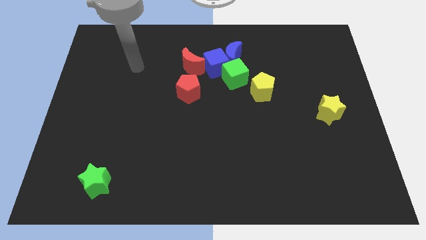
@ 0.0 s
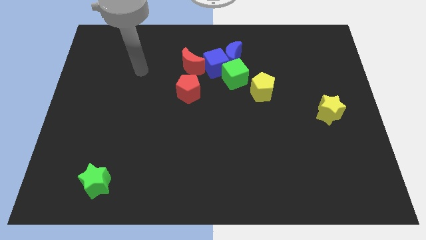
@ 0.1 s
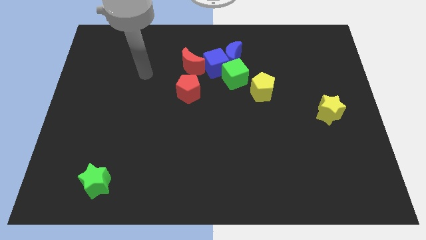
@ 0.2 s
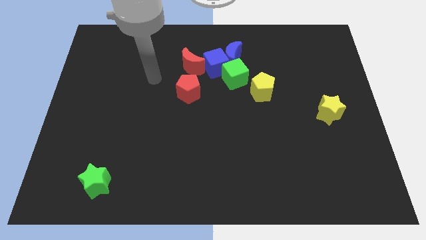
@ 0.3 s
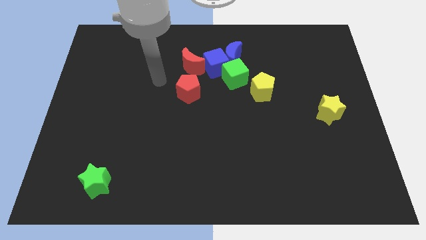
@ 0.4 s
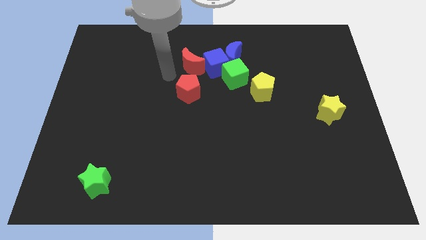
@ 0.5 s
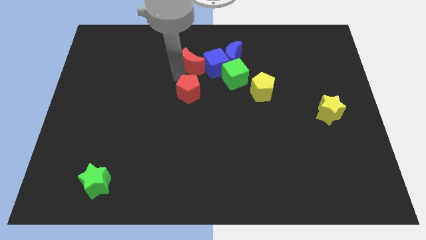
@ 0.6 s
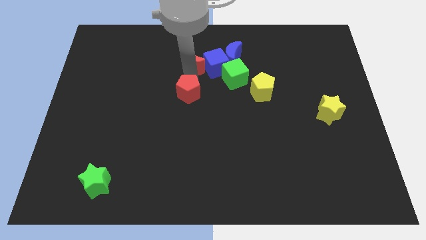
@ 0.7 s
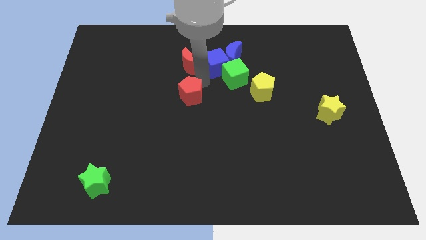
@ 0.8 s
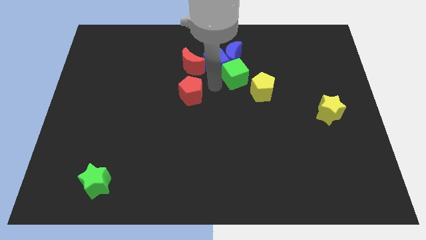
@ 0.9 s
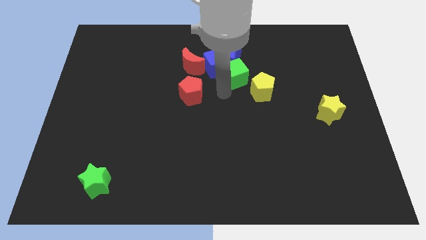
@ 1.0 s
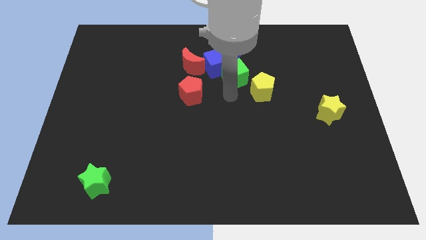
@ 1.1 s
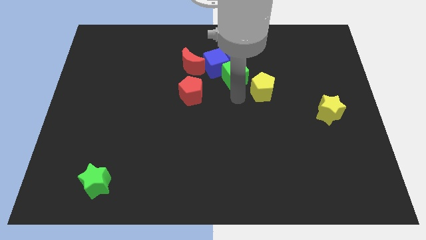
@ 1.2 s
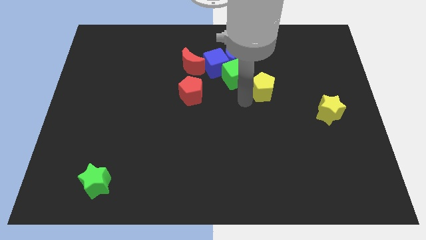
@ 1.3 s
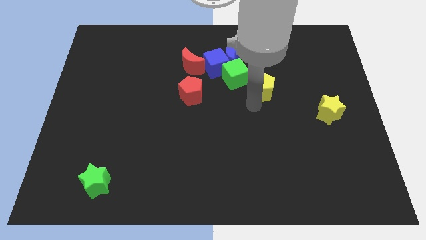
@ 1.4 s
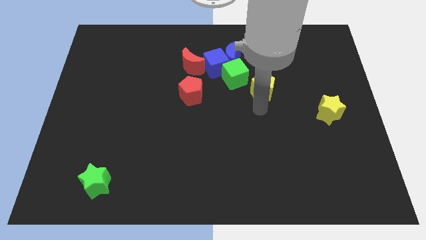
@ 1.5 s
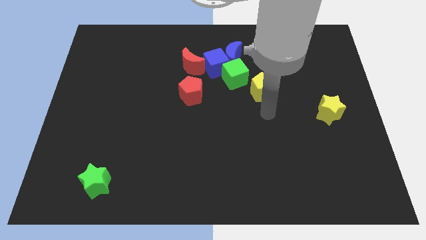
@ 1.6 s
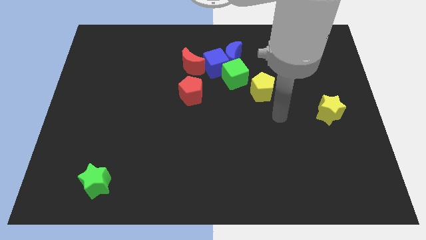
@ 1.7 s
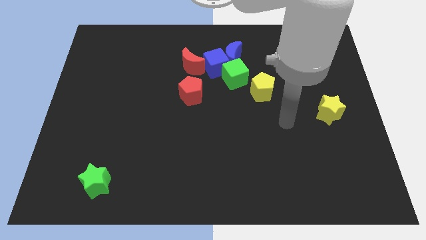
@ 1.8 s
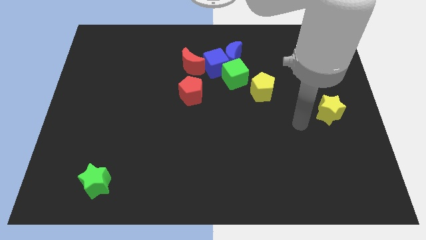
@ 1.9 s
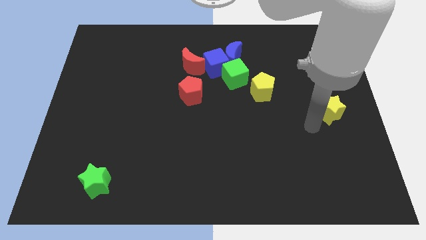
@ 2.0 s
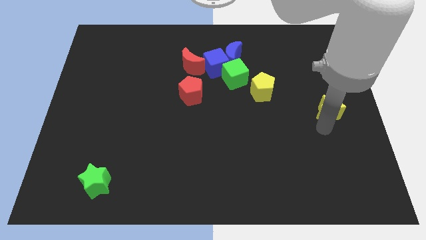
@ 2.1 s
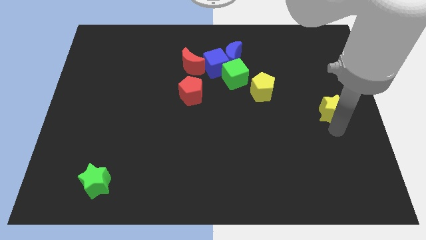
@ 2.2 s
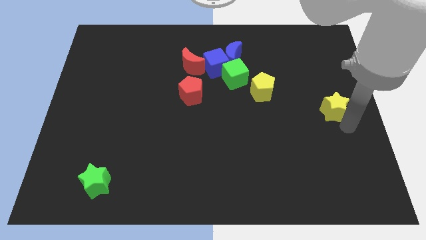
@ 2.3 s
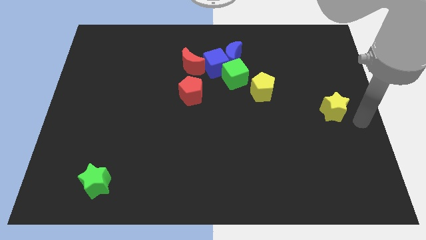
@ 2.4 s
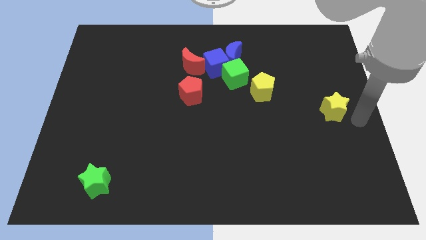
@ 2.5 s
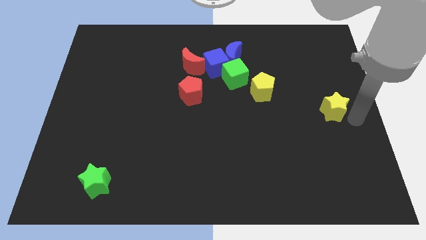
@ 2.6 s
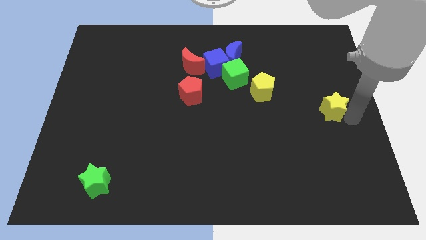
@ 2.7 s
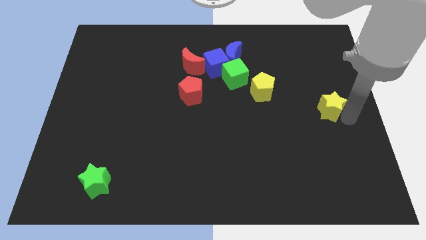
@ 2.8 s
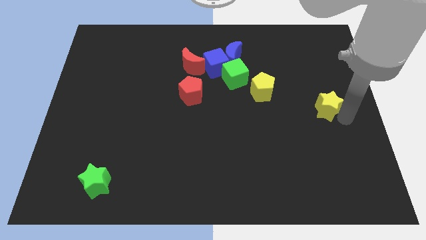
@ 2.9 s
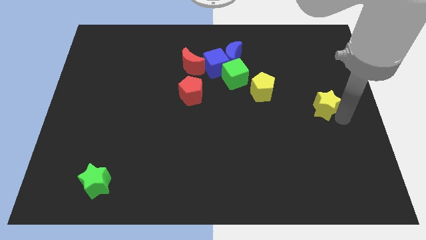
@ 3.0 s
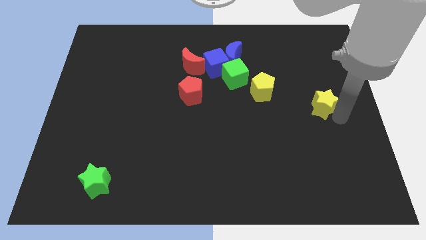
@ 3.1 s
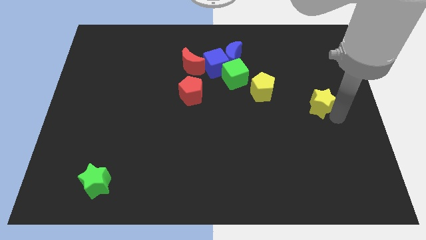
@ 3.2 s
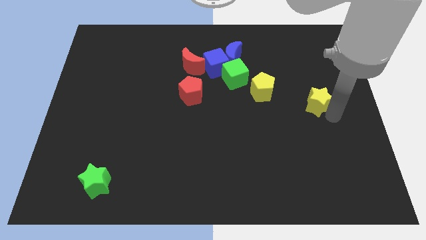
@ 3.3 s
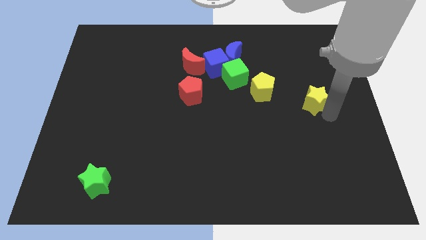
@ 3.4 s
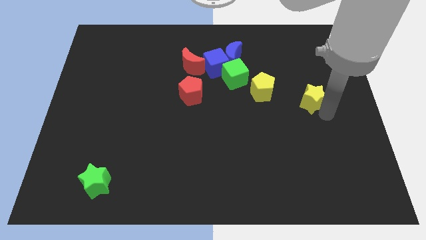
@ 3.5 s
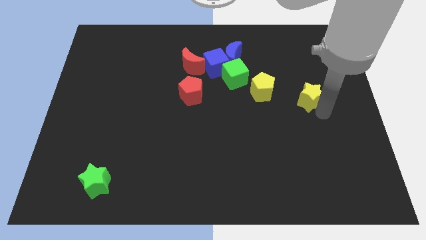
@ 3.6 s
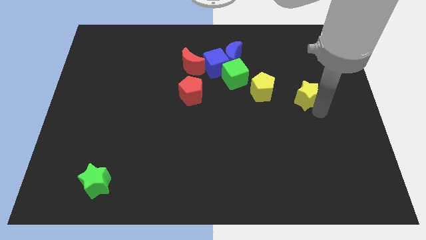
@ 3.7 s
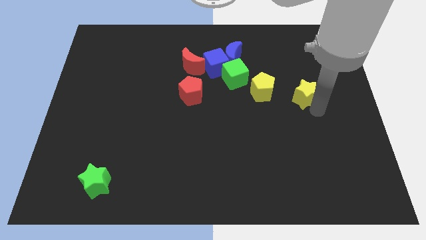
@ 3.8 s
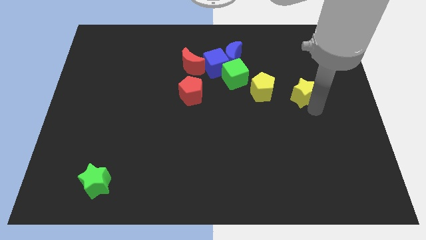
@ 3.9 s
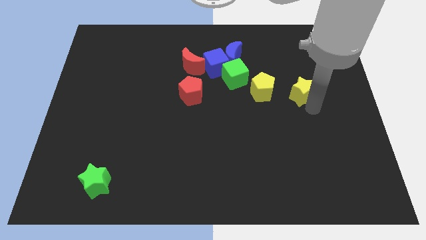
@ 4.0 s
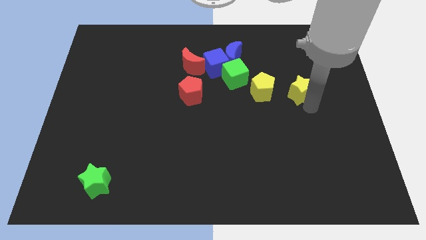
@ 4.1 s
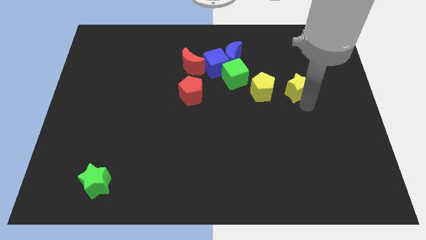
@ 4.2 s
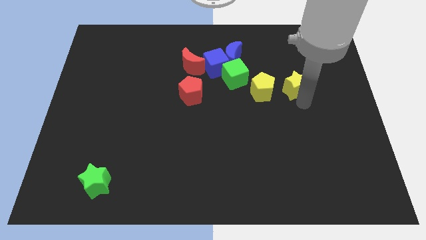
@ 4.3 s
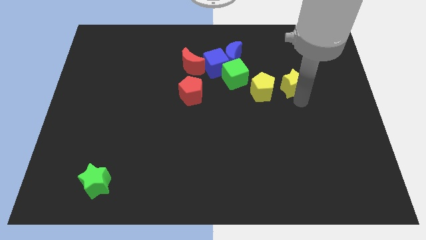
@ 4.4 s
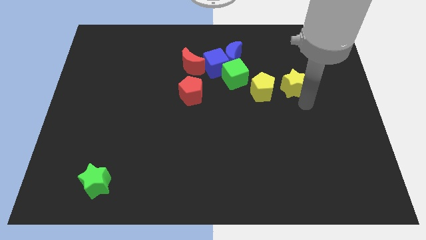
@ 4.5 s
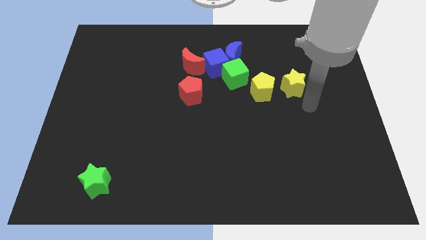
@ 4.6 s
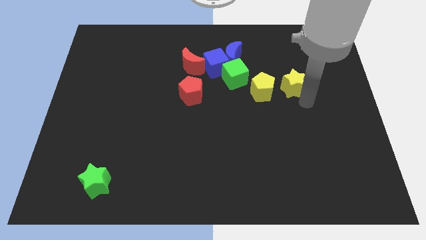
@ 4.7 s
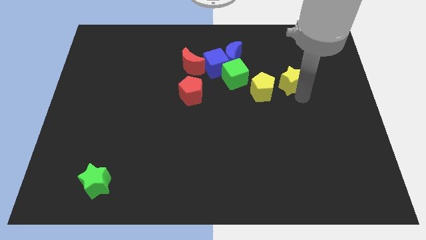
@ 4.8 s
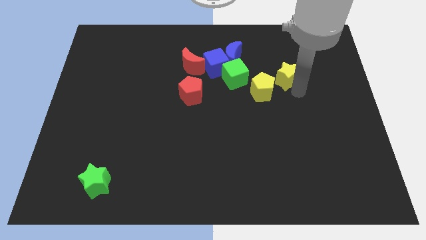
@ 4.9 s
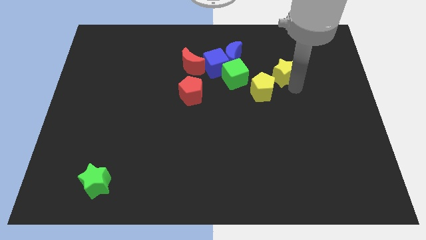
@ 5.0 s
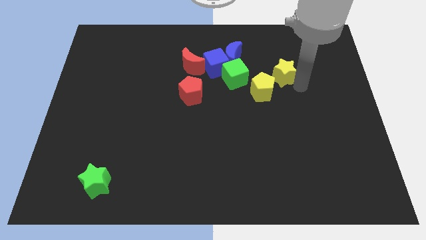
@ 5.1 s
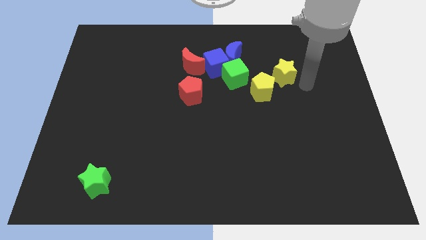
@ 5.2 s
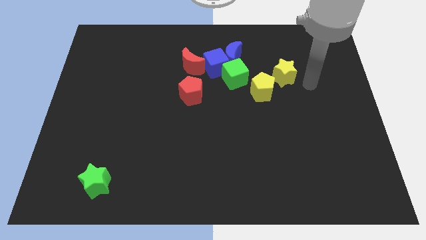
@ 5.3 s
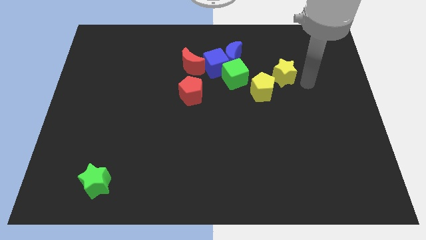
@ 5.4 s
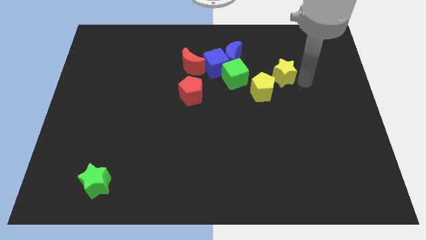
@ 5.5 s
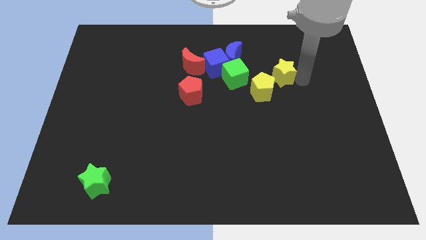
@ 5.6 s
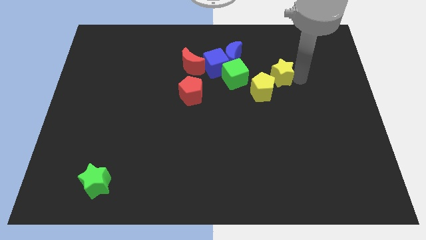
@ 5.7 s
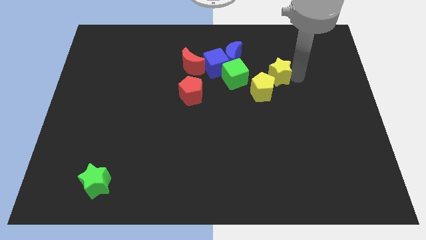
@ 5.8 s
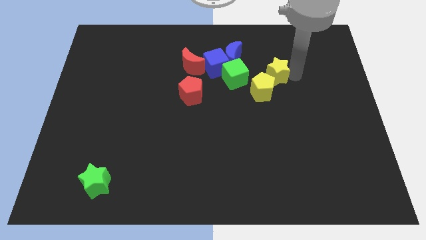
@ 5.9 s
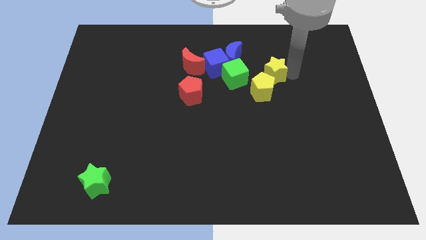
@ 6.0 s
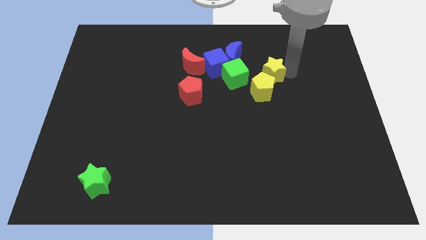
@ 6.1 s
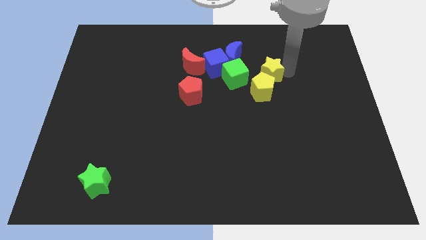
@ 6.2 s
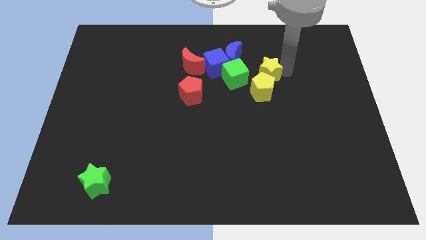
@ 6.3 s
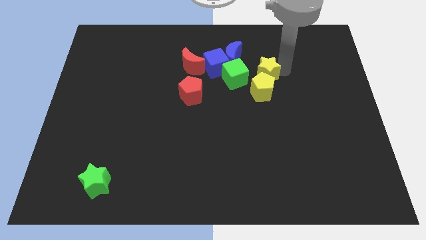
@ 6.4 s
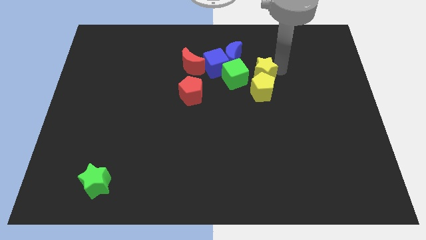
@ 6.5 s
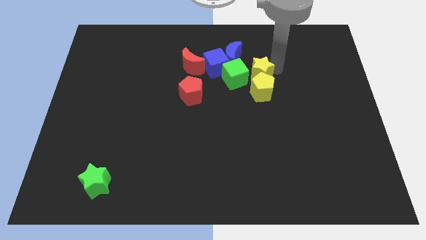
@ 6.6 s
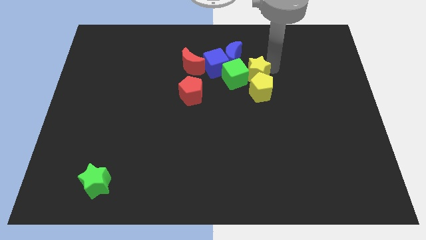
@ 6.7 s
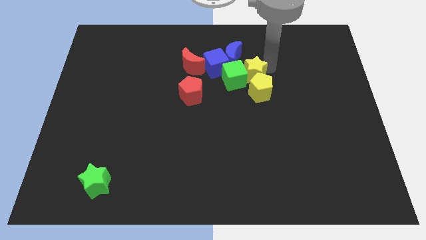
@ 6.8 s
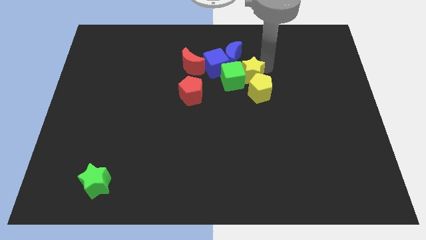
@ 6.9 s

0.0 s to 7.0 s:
slide the yellow star just right of the red moon
